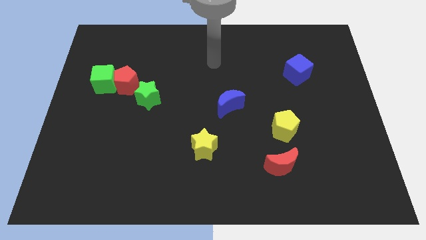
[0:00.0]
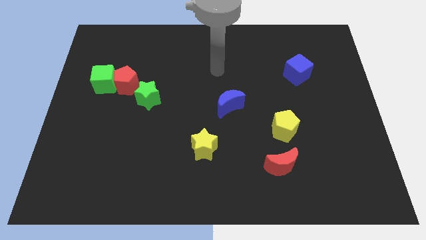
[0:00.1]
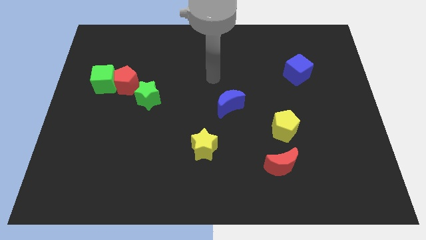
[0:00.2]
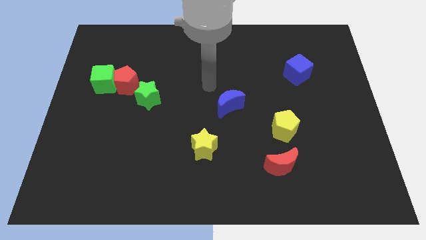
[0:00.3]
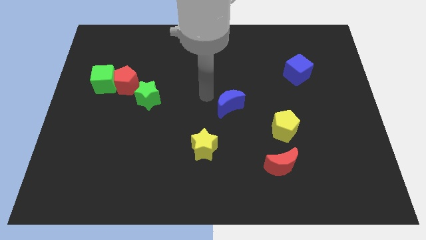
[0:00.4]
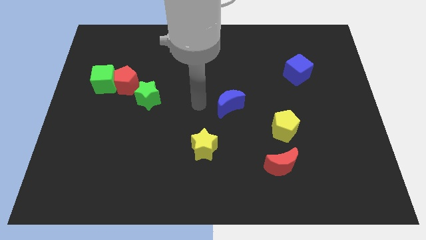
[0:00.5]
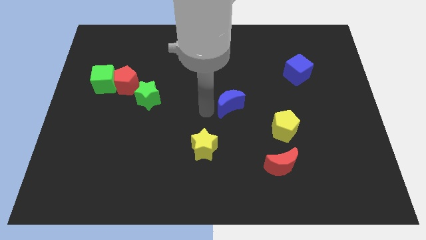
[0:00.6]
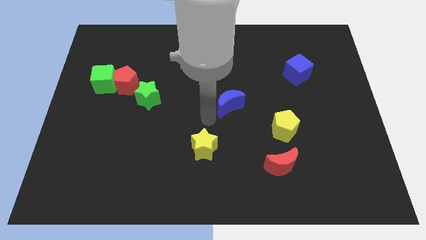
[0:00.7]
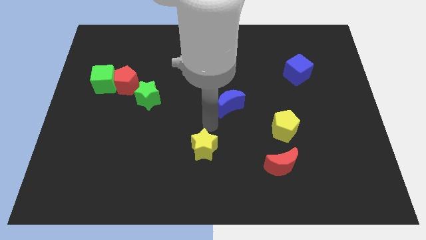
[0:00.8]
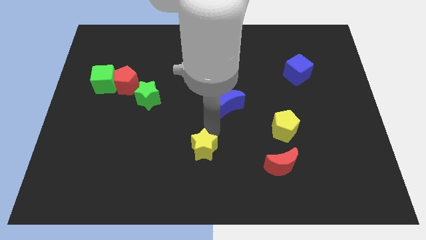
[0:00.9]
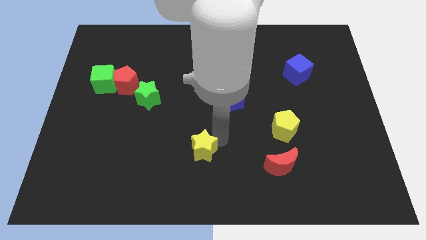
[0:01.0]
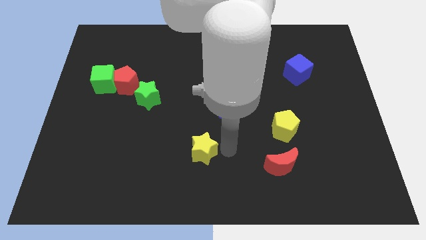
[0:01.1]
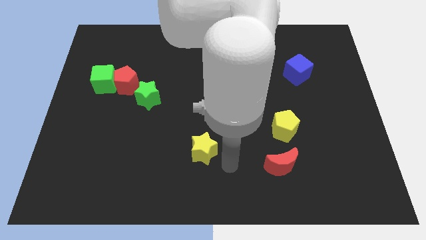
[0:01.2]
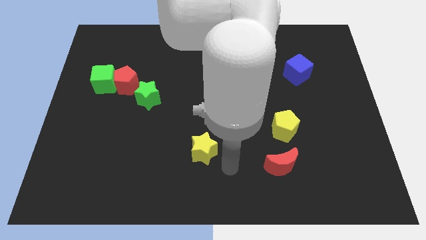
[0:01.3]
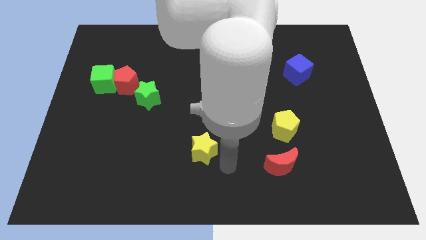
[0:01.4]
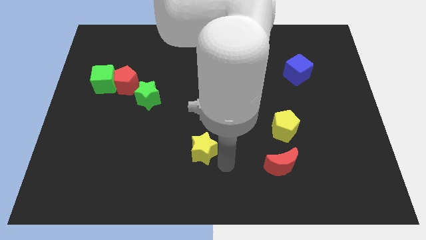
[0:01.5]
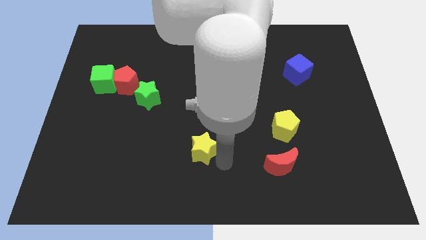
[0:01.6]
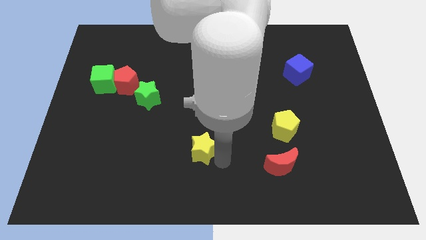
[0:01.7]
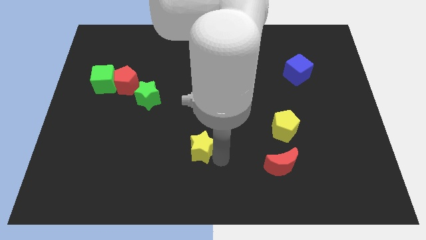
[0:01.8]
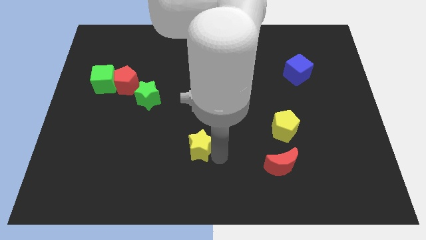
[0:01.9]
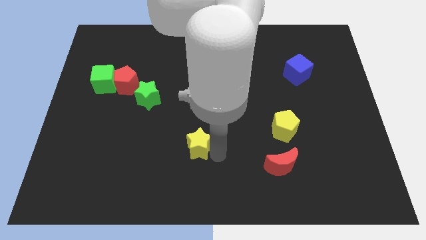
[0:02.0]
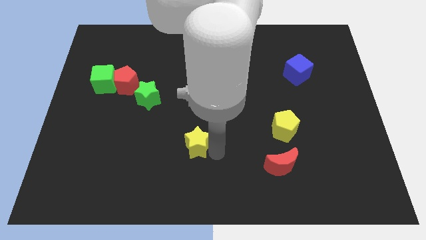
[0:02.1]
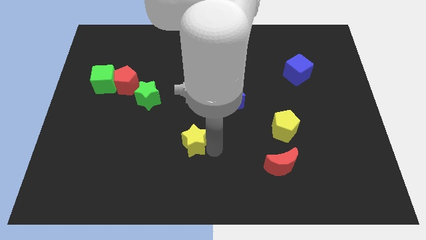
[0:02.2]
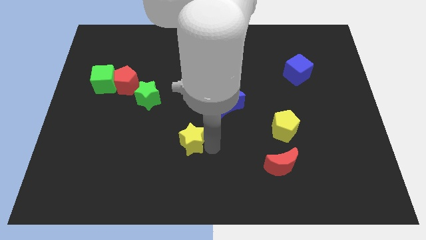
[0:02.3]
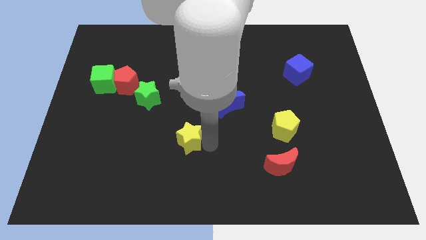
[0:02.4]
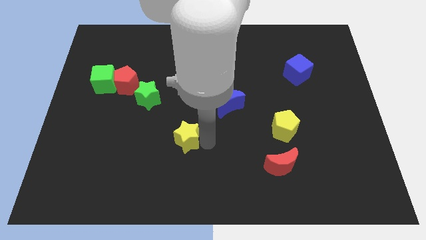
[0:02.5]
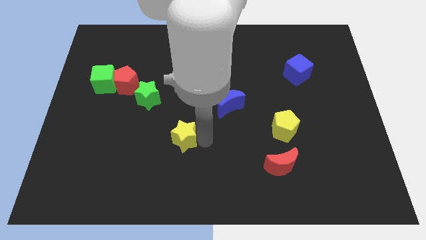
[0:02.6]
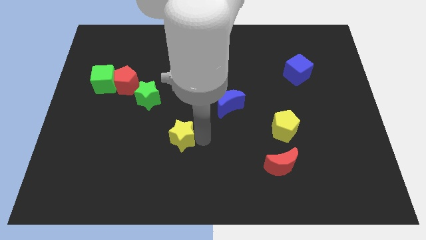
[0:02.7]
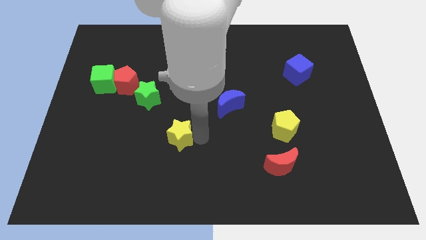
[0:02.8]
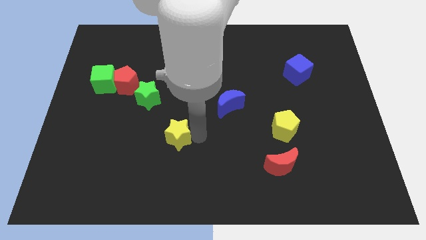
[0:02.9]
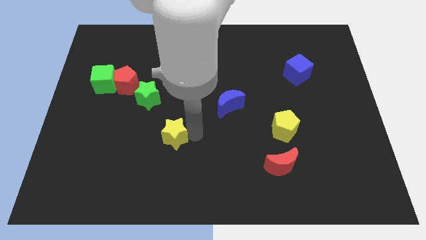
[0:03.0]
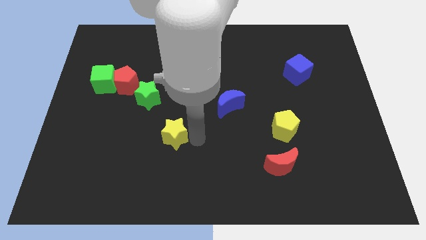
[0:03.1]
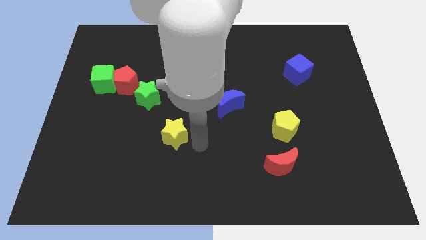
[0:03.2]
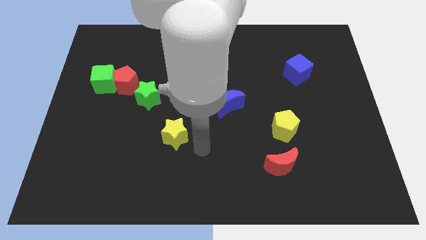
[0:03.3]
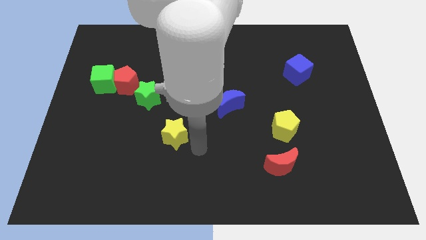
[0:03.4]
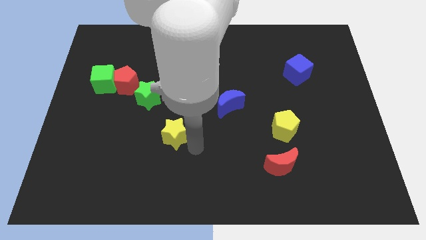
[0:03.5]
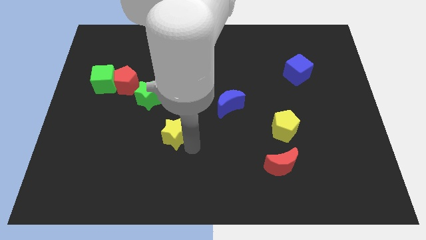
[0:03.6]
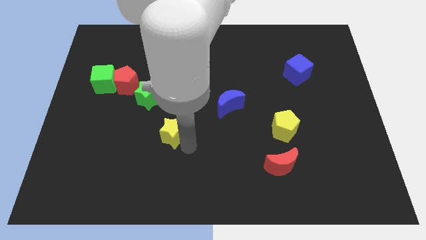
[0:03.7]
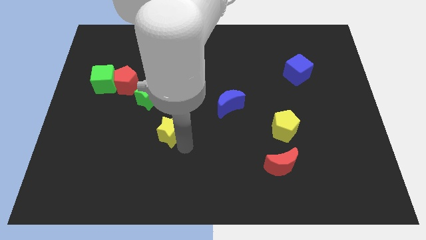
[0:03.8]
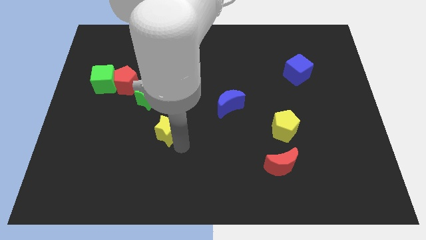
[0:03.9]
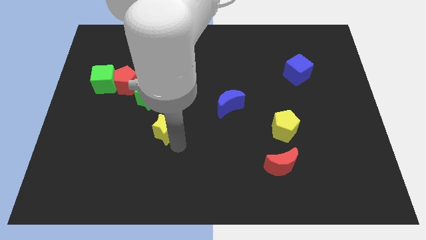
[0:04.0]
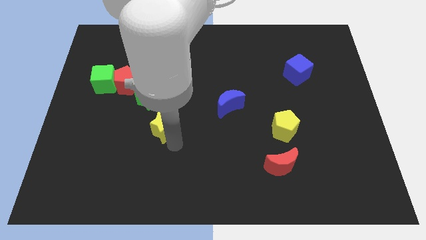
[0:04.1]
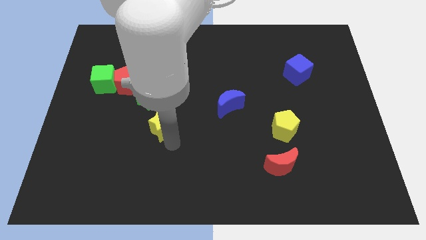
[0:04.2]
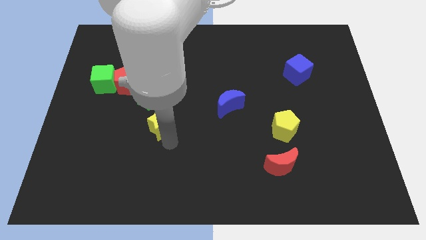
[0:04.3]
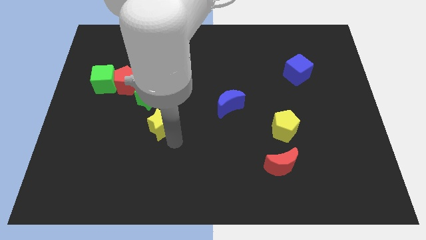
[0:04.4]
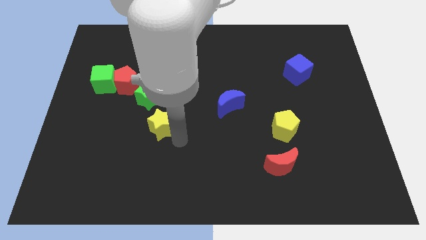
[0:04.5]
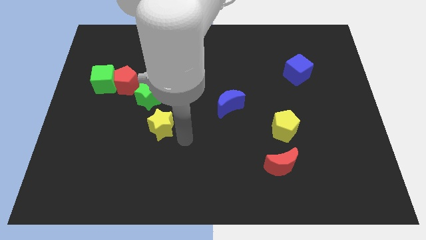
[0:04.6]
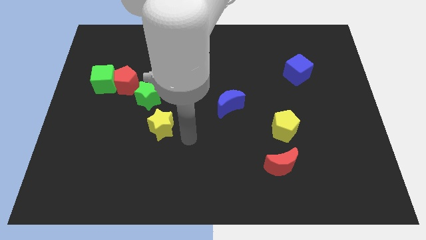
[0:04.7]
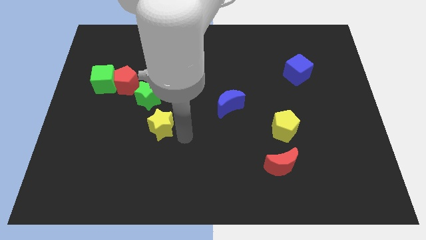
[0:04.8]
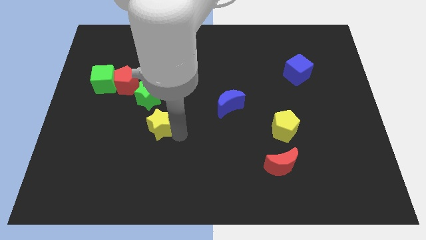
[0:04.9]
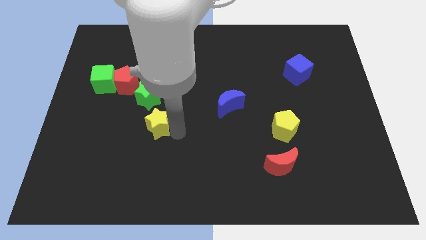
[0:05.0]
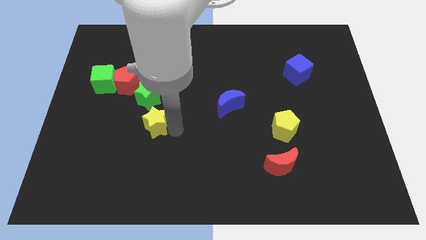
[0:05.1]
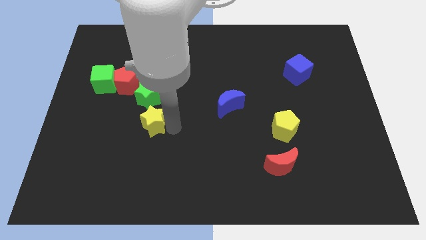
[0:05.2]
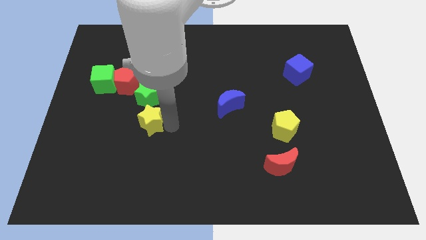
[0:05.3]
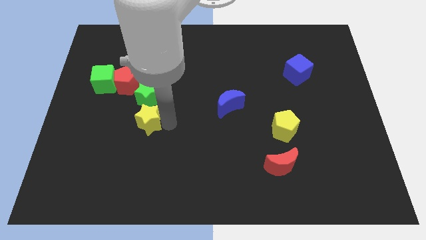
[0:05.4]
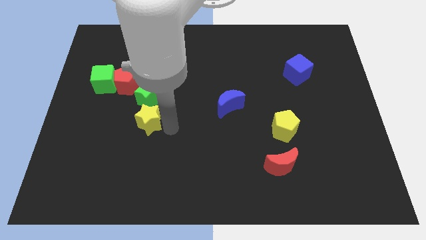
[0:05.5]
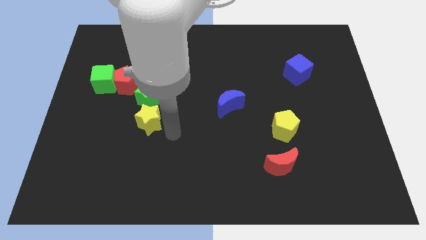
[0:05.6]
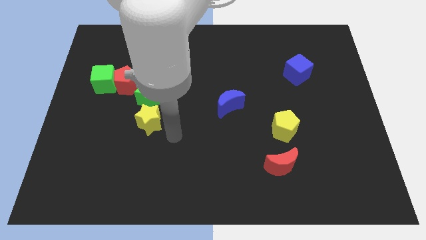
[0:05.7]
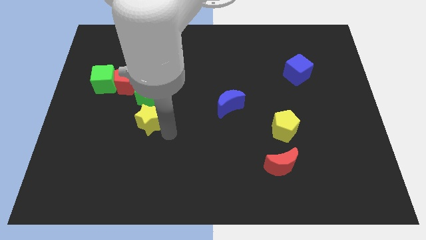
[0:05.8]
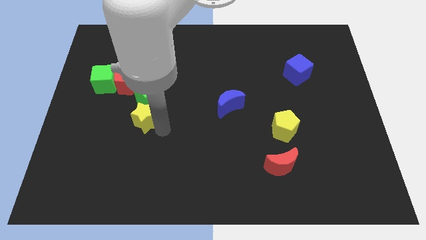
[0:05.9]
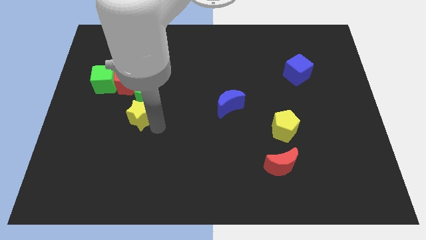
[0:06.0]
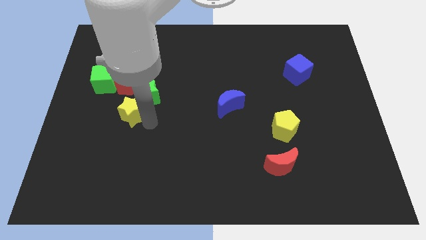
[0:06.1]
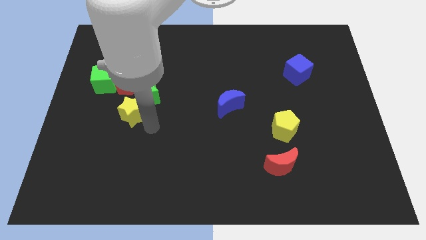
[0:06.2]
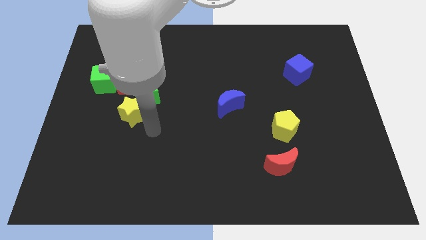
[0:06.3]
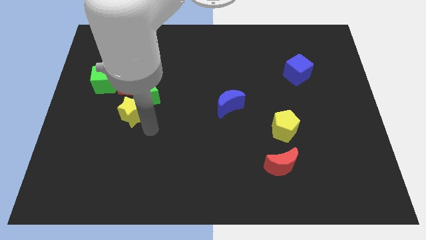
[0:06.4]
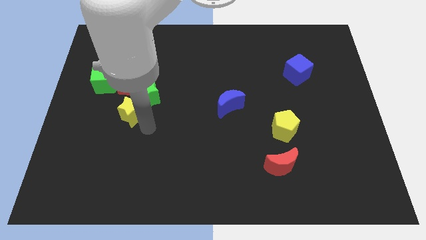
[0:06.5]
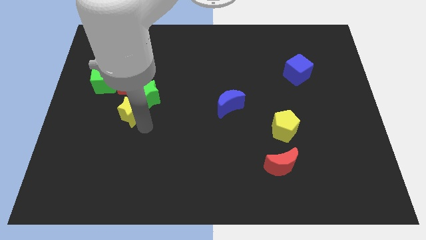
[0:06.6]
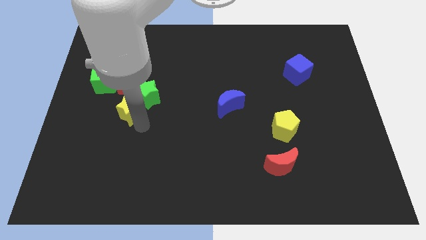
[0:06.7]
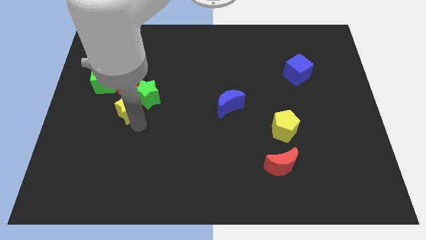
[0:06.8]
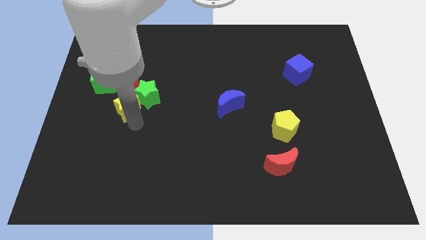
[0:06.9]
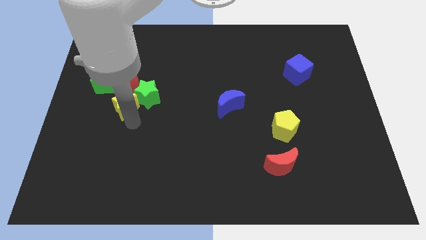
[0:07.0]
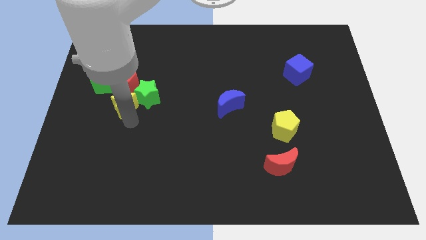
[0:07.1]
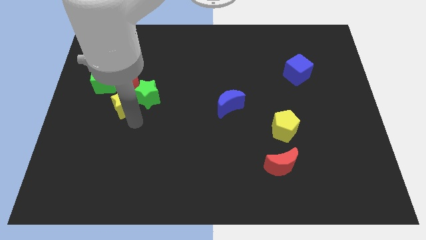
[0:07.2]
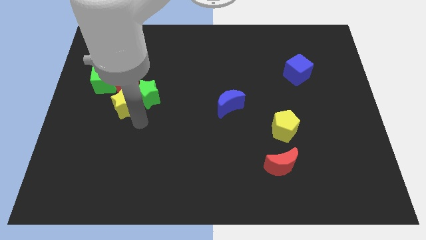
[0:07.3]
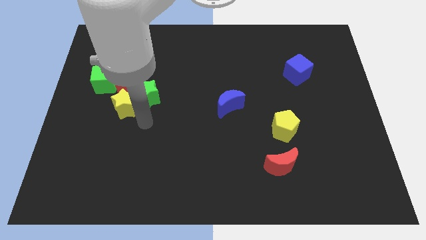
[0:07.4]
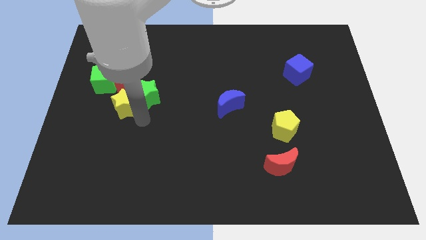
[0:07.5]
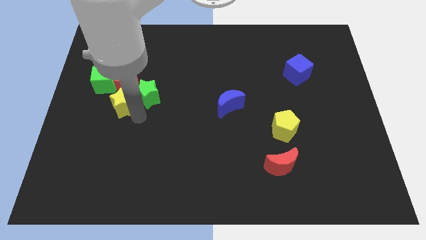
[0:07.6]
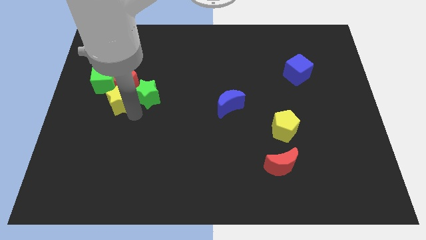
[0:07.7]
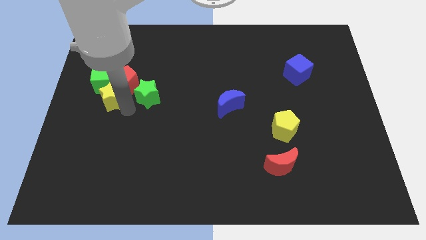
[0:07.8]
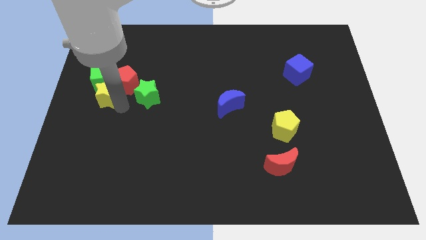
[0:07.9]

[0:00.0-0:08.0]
slide the yellow star to the green cube

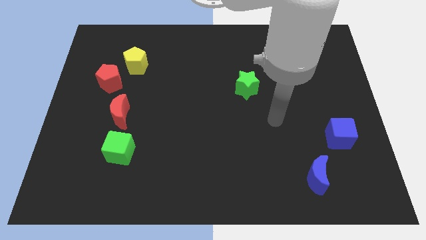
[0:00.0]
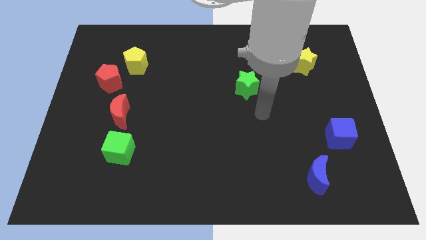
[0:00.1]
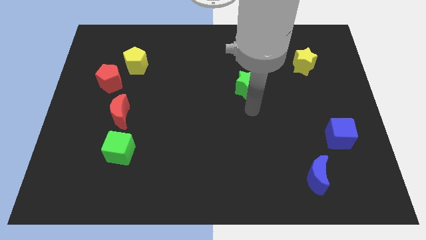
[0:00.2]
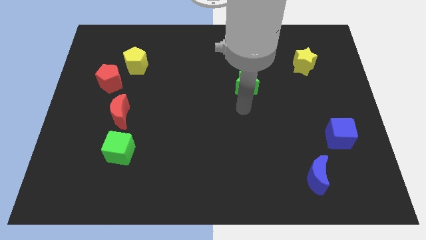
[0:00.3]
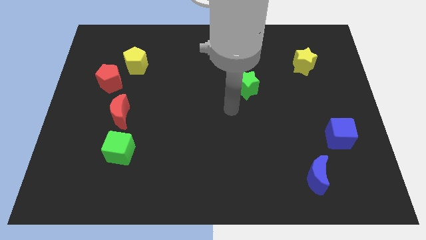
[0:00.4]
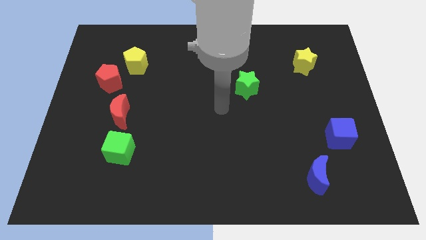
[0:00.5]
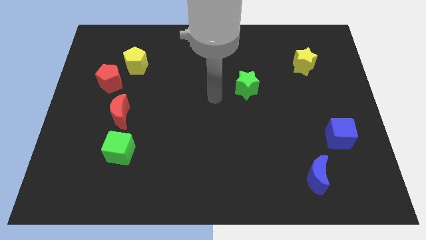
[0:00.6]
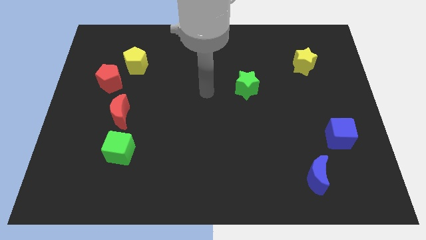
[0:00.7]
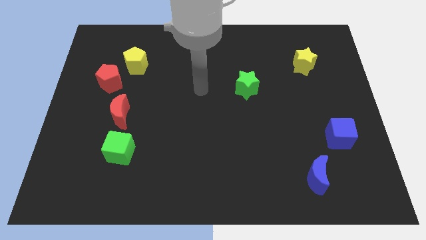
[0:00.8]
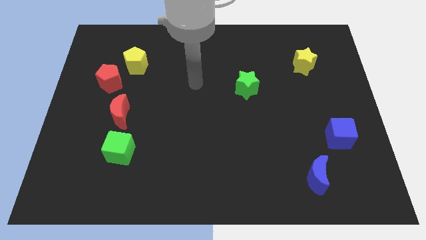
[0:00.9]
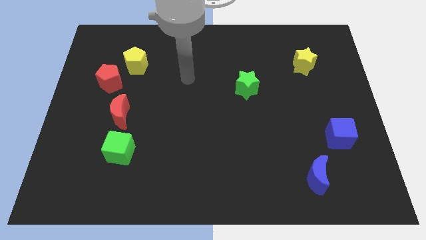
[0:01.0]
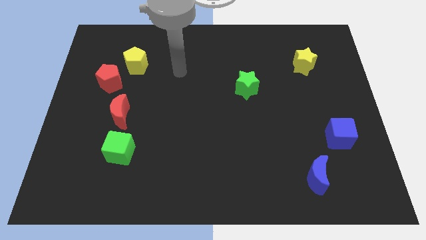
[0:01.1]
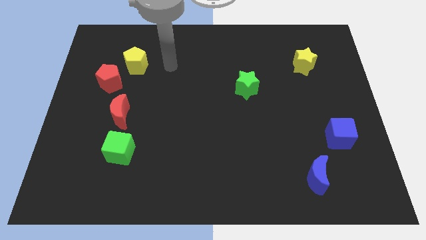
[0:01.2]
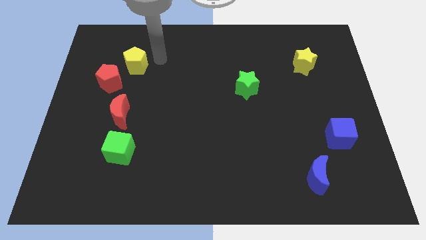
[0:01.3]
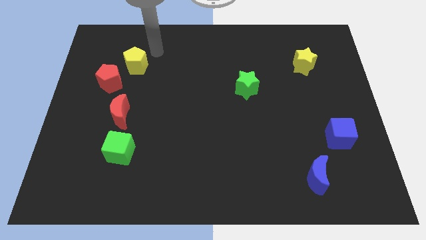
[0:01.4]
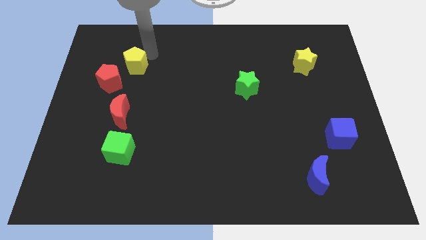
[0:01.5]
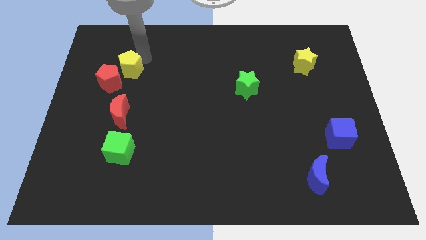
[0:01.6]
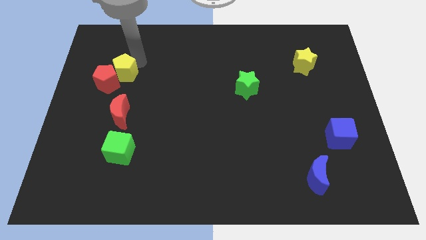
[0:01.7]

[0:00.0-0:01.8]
put the yellow pentagon next to the red pentagon
